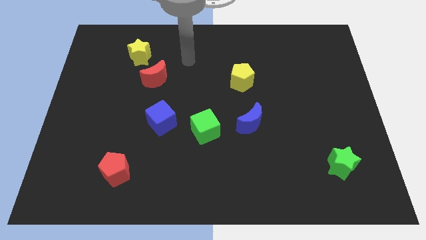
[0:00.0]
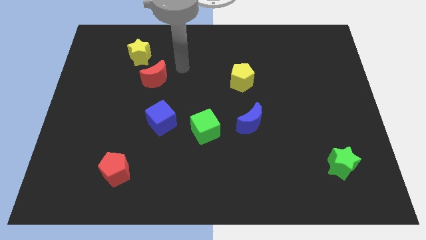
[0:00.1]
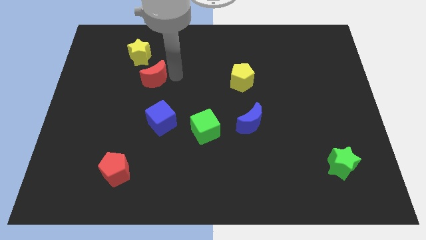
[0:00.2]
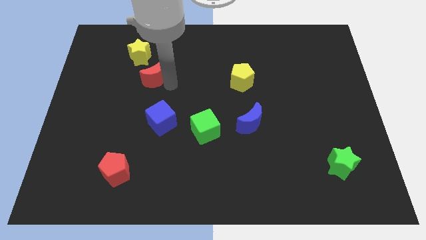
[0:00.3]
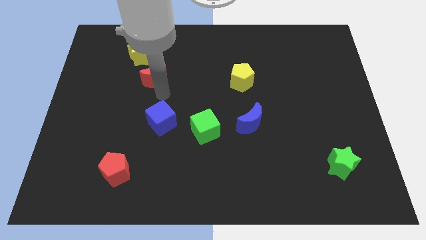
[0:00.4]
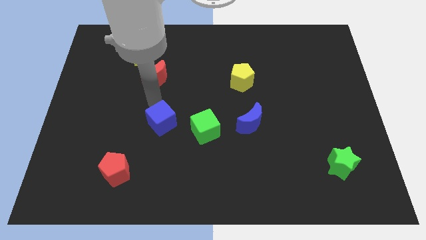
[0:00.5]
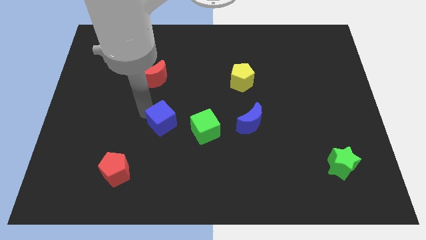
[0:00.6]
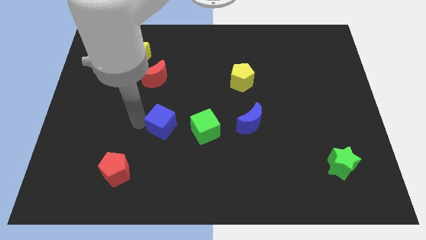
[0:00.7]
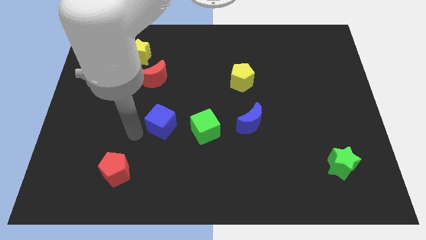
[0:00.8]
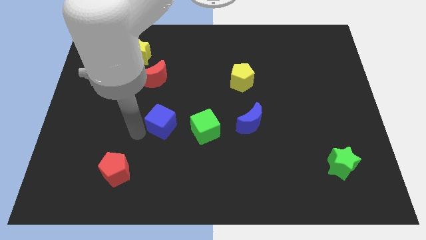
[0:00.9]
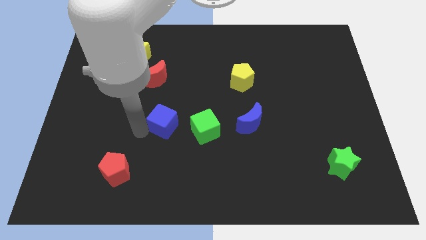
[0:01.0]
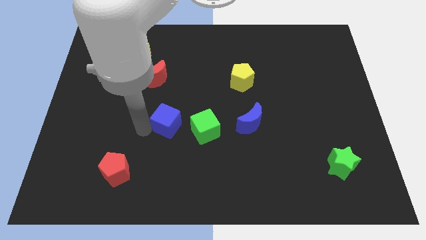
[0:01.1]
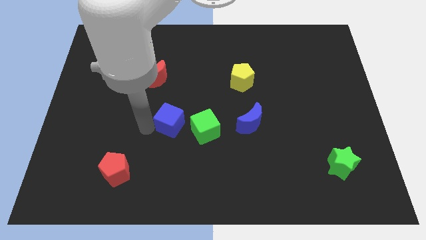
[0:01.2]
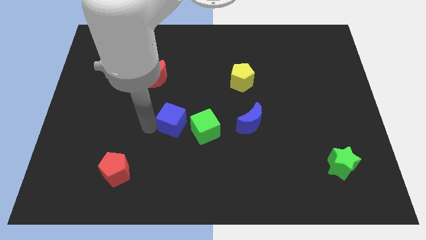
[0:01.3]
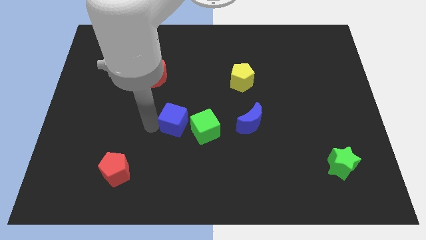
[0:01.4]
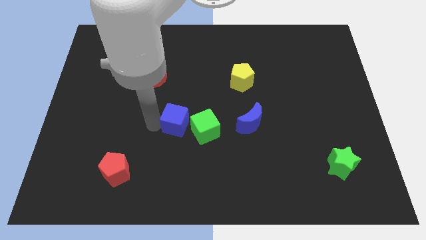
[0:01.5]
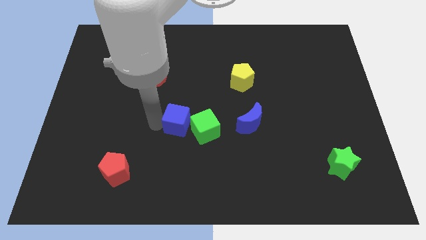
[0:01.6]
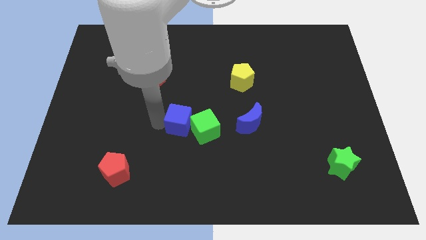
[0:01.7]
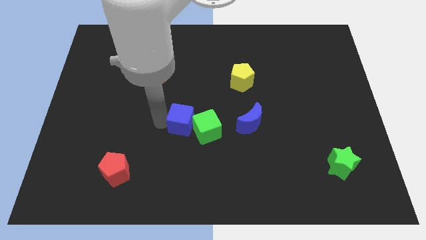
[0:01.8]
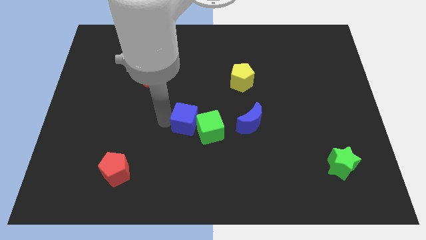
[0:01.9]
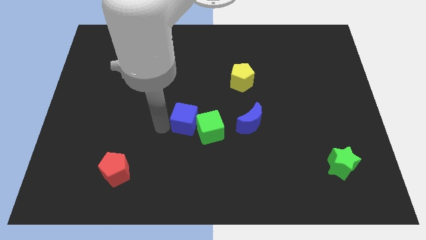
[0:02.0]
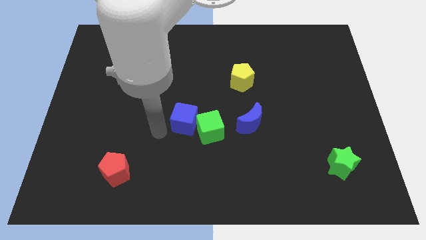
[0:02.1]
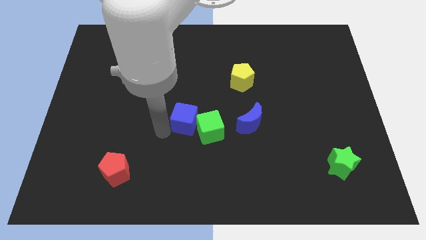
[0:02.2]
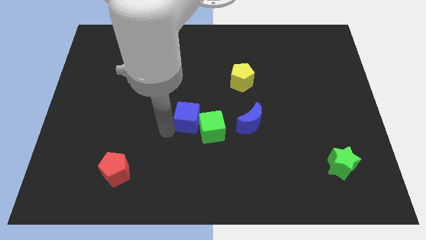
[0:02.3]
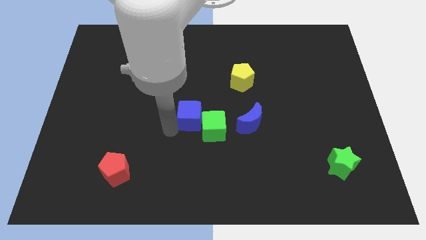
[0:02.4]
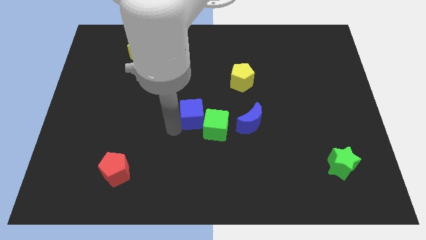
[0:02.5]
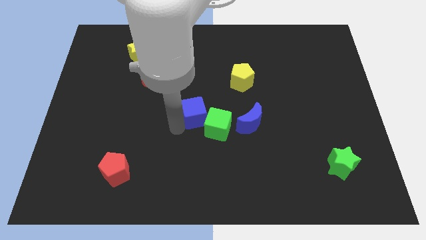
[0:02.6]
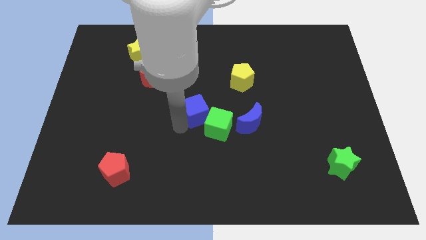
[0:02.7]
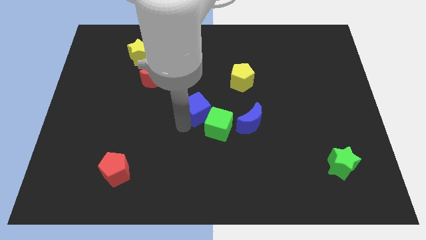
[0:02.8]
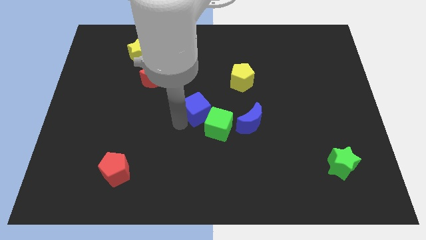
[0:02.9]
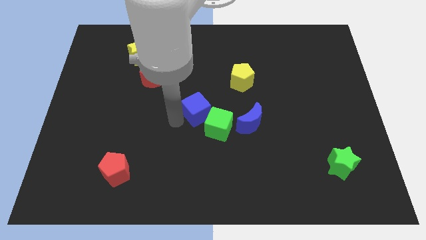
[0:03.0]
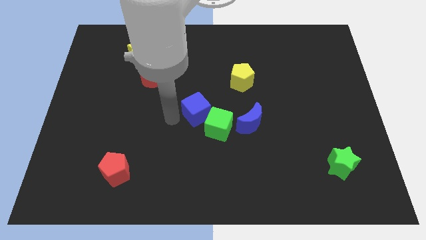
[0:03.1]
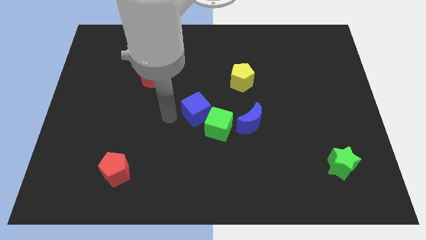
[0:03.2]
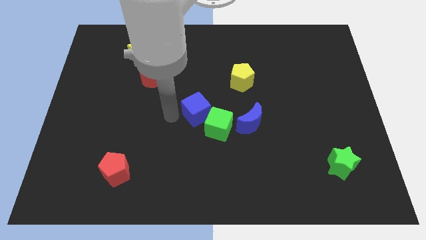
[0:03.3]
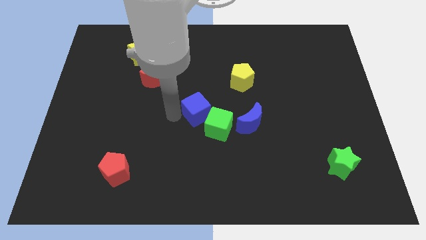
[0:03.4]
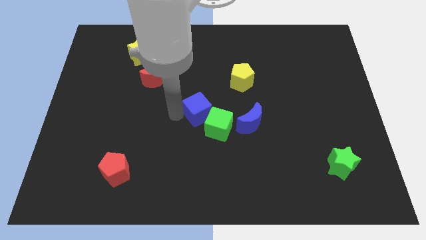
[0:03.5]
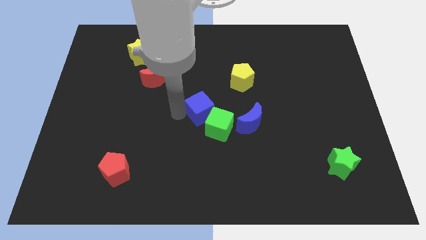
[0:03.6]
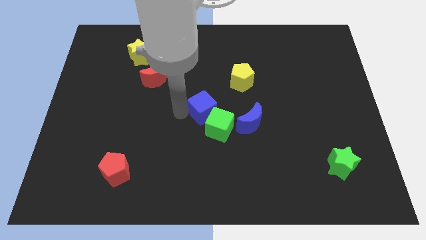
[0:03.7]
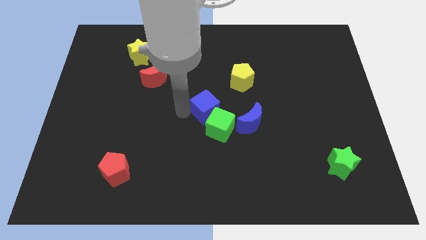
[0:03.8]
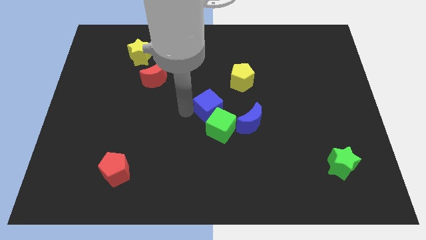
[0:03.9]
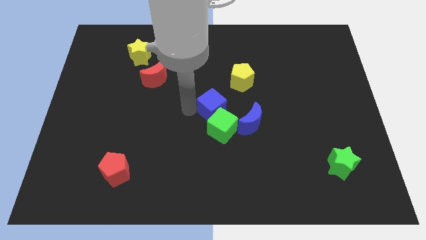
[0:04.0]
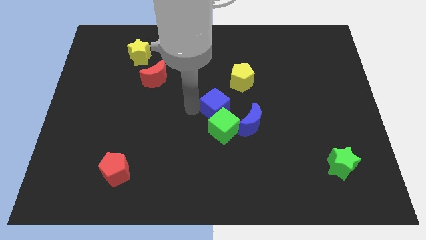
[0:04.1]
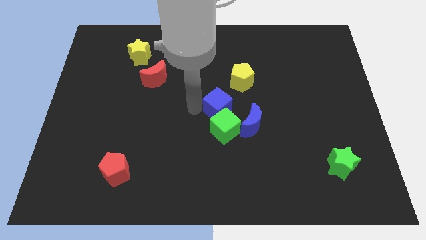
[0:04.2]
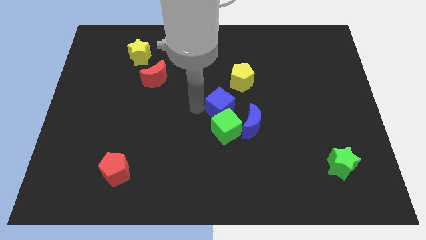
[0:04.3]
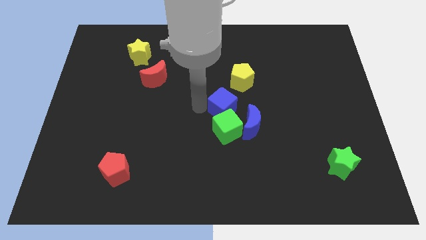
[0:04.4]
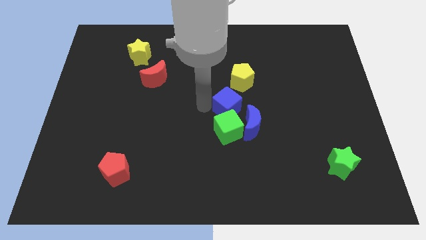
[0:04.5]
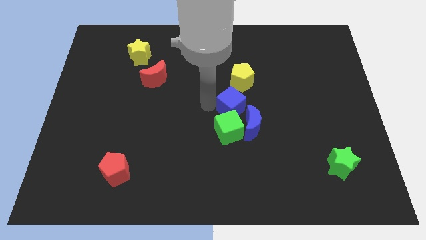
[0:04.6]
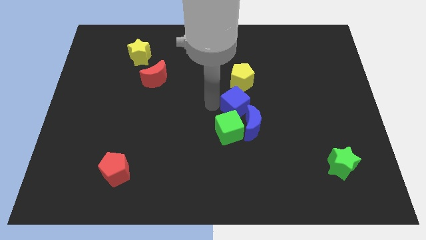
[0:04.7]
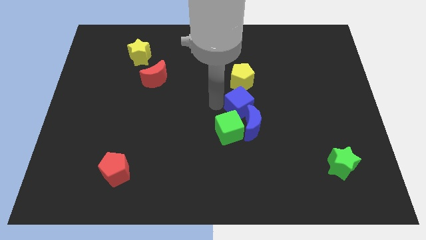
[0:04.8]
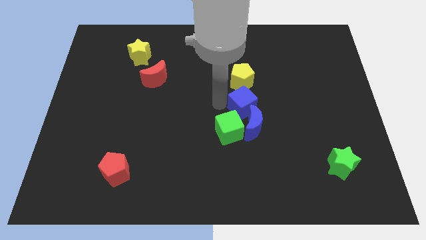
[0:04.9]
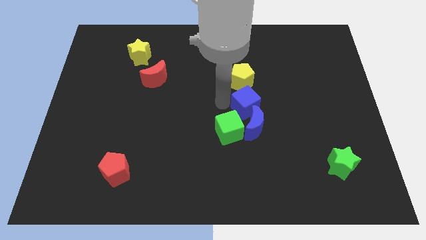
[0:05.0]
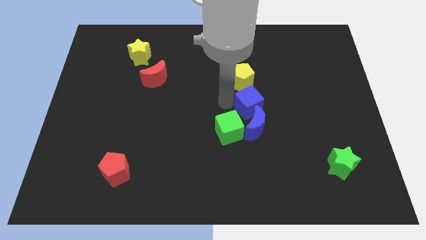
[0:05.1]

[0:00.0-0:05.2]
move the blue cube to the bottom right of the yellow pentagon

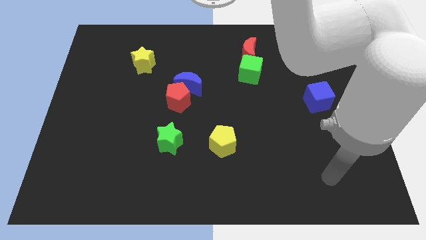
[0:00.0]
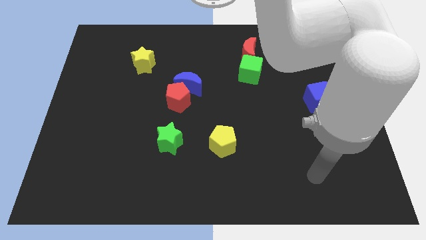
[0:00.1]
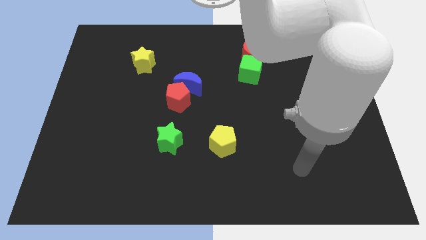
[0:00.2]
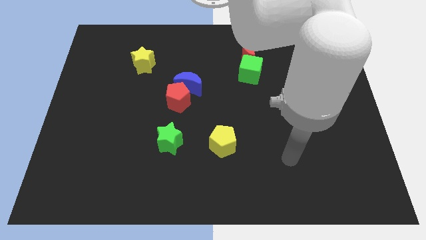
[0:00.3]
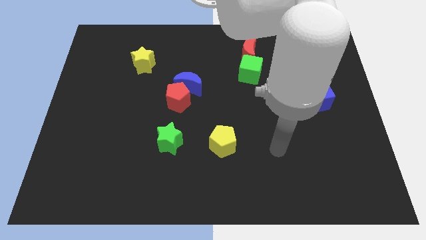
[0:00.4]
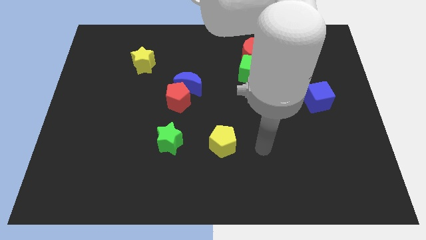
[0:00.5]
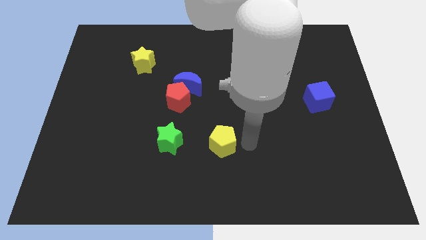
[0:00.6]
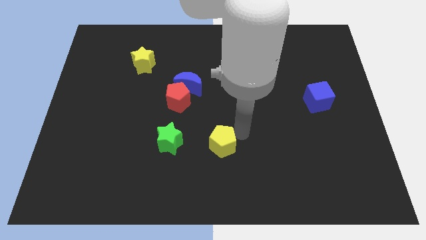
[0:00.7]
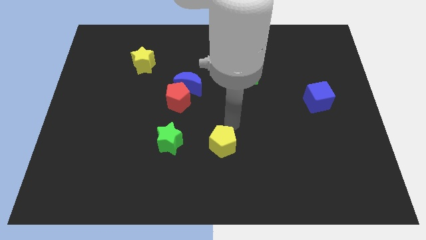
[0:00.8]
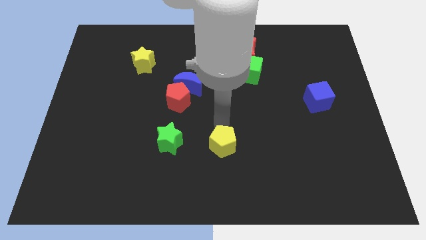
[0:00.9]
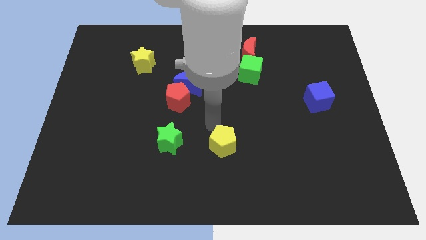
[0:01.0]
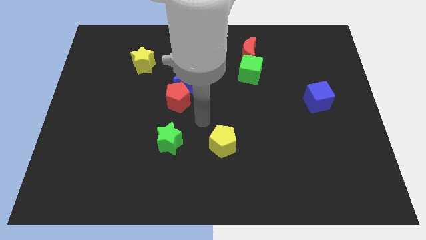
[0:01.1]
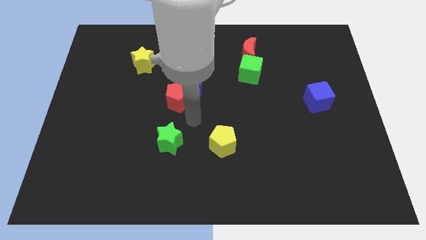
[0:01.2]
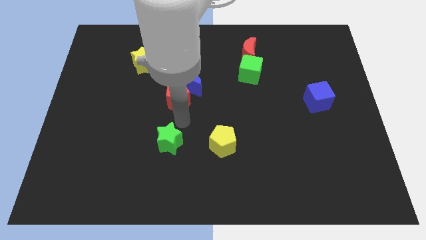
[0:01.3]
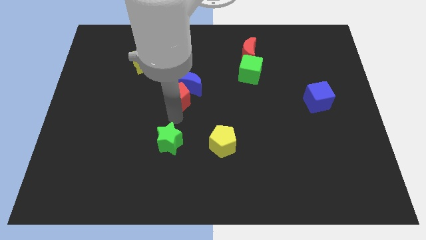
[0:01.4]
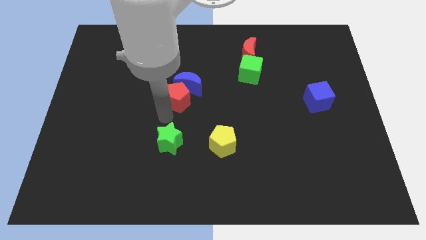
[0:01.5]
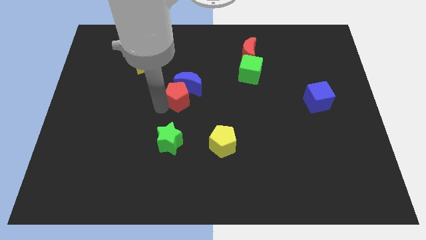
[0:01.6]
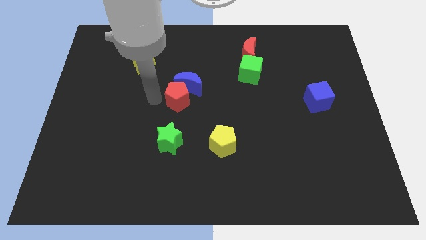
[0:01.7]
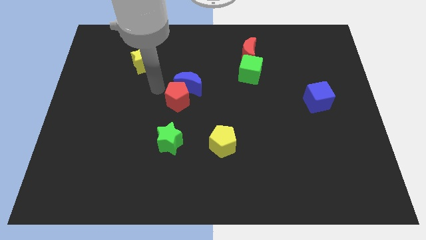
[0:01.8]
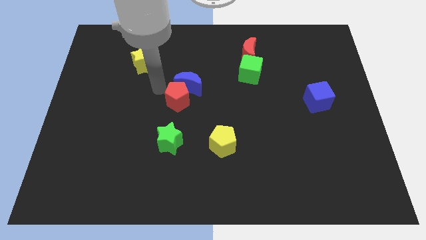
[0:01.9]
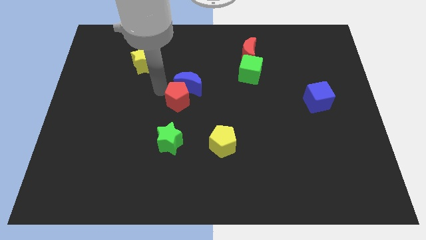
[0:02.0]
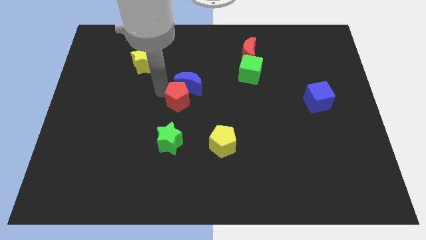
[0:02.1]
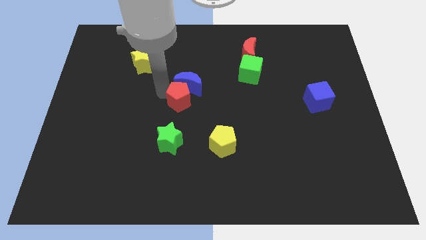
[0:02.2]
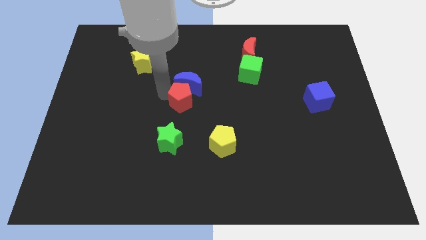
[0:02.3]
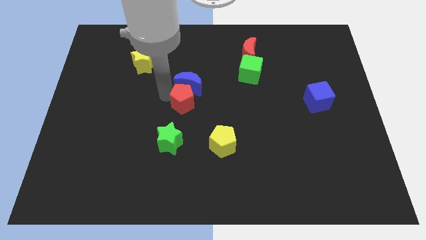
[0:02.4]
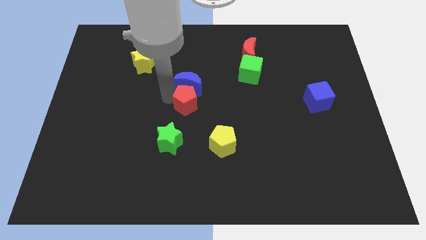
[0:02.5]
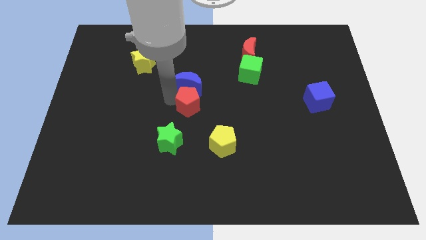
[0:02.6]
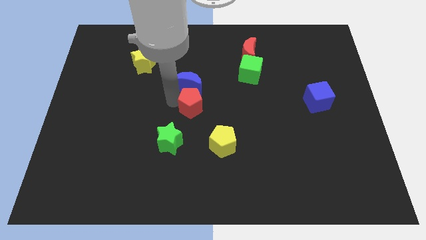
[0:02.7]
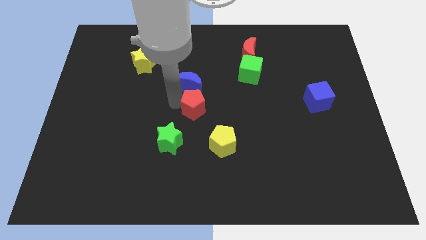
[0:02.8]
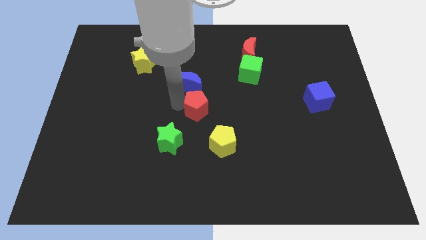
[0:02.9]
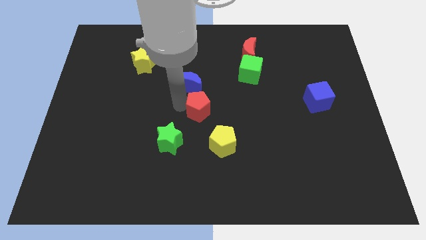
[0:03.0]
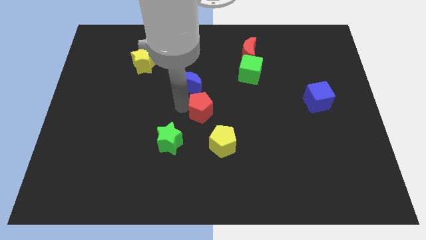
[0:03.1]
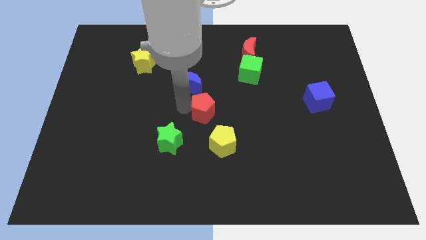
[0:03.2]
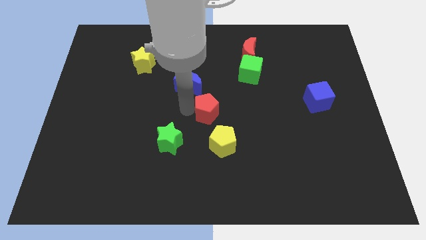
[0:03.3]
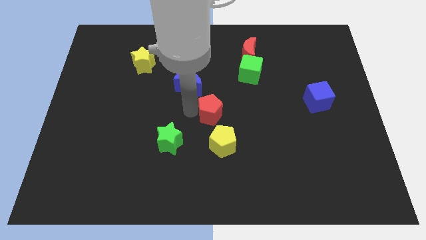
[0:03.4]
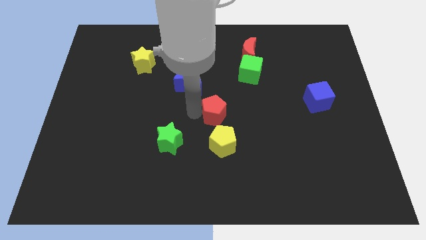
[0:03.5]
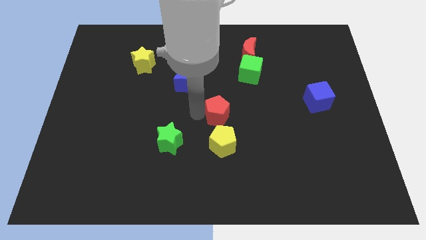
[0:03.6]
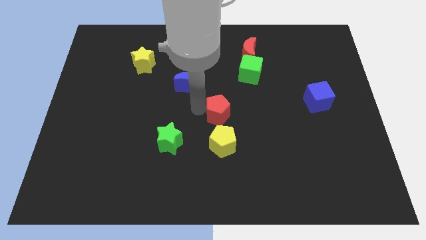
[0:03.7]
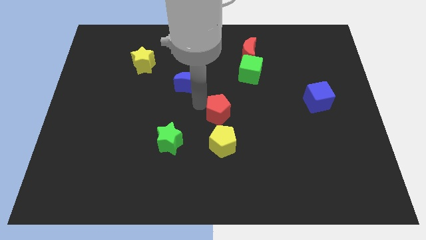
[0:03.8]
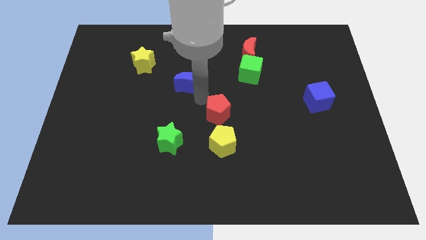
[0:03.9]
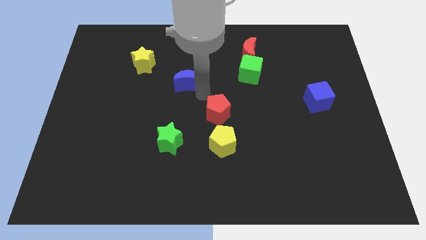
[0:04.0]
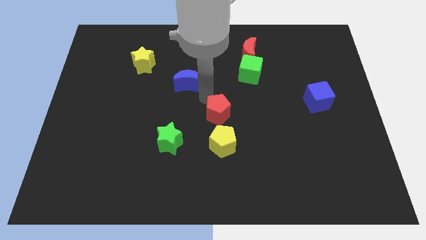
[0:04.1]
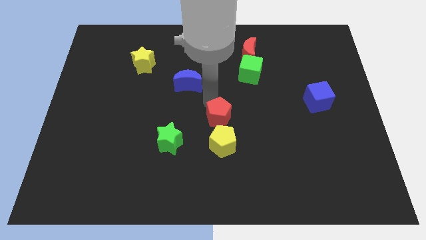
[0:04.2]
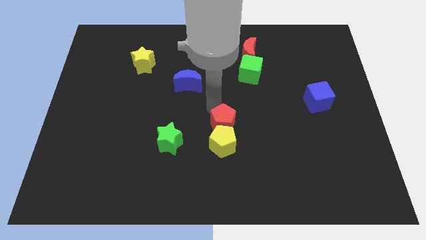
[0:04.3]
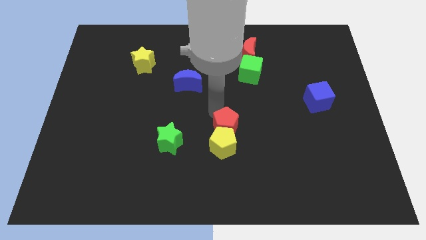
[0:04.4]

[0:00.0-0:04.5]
slide the red pentagon to the right side of the green star
